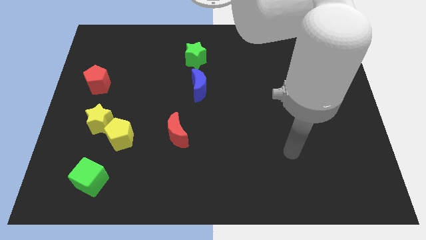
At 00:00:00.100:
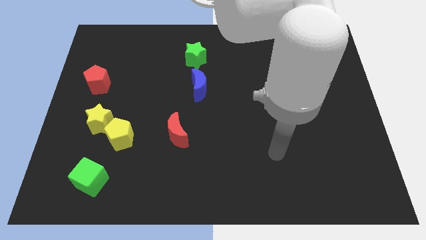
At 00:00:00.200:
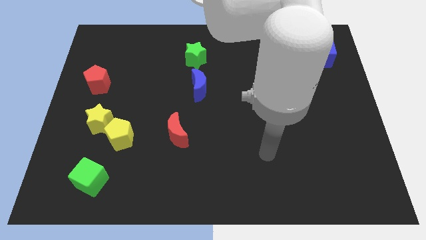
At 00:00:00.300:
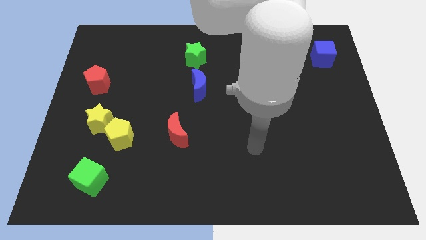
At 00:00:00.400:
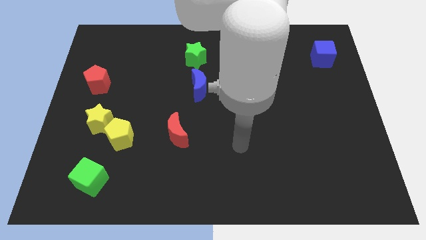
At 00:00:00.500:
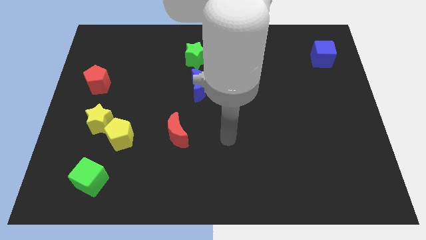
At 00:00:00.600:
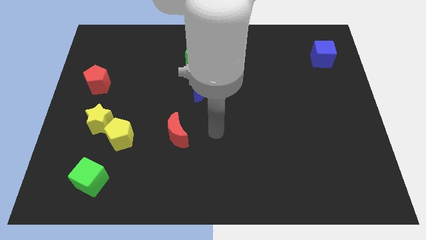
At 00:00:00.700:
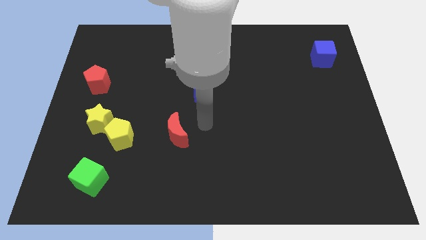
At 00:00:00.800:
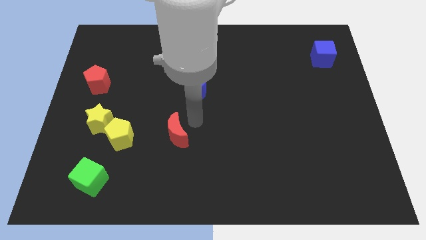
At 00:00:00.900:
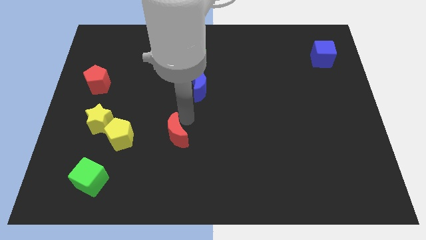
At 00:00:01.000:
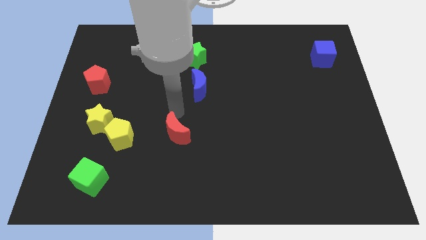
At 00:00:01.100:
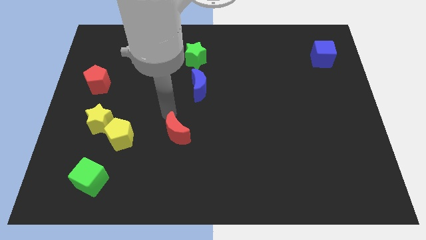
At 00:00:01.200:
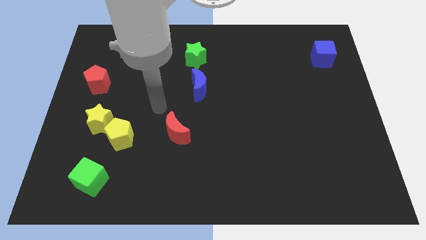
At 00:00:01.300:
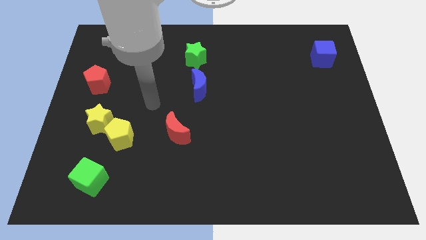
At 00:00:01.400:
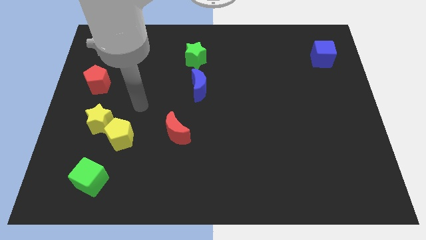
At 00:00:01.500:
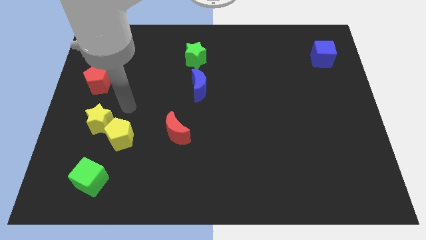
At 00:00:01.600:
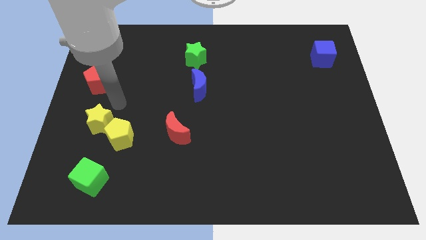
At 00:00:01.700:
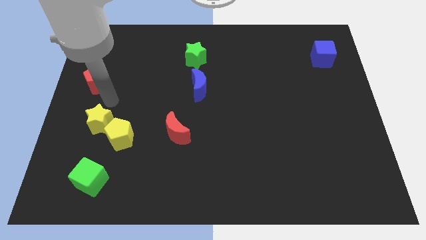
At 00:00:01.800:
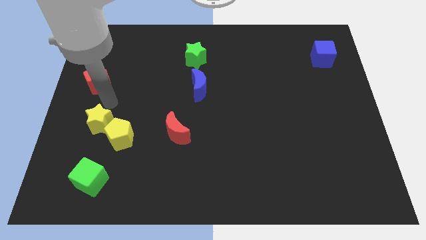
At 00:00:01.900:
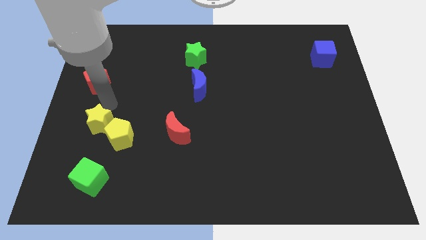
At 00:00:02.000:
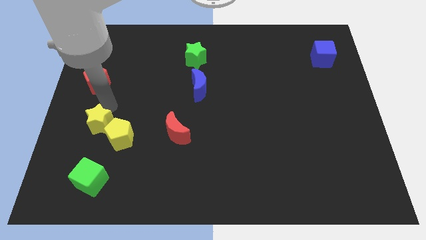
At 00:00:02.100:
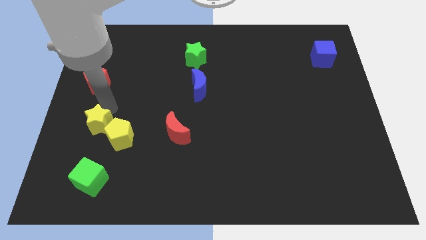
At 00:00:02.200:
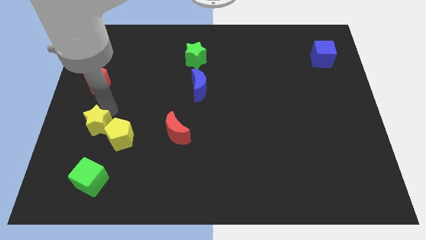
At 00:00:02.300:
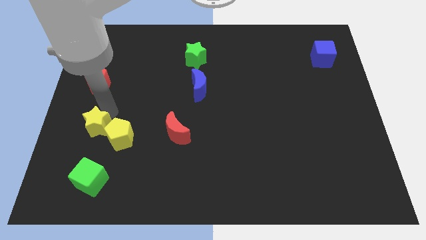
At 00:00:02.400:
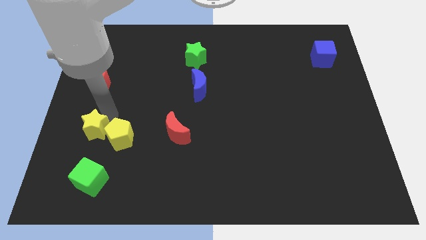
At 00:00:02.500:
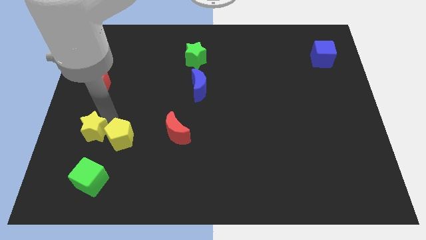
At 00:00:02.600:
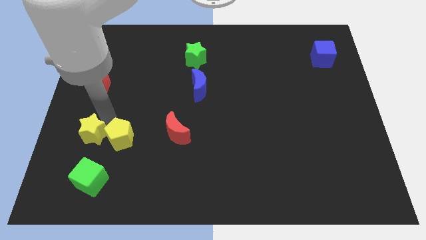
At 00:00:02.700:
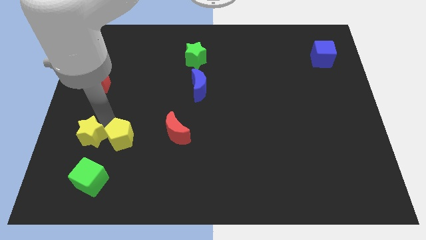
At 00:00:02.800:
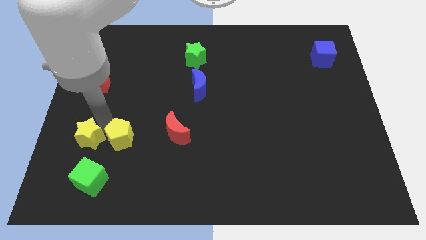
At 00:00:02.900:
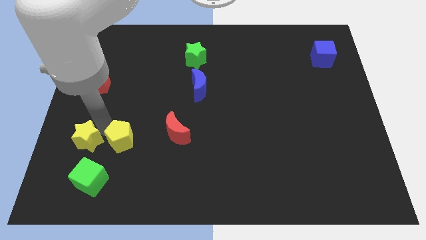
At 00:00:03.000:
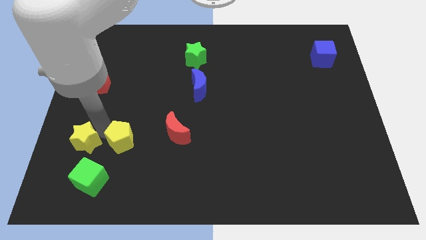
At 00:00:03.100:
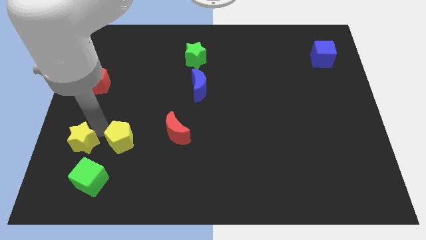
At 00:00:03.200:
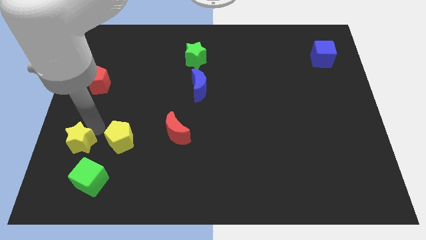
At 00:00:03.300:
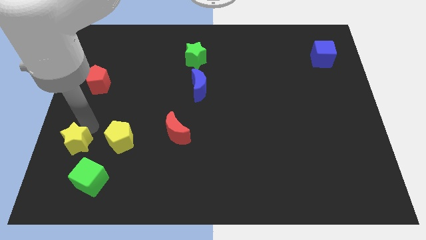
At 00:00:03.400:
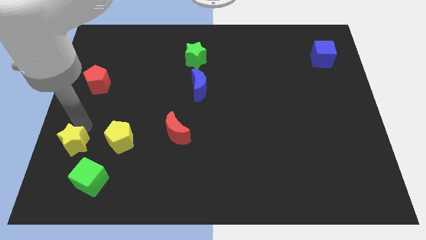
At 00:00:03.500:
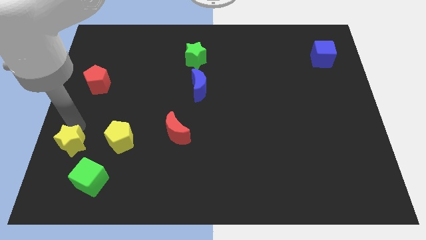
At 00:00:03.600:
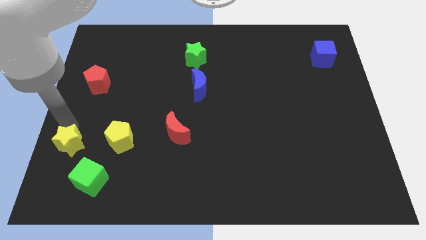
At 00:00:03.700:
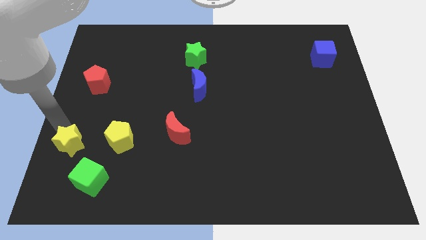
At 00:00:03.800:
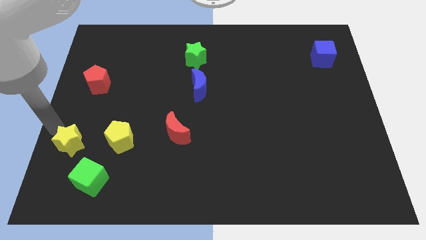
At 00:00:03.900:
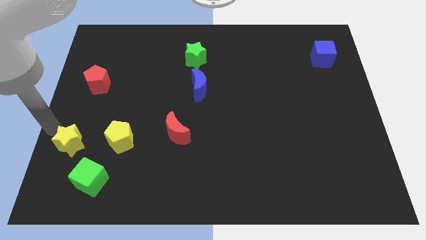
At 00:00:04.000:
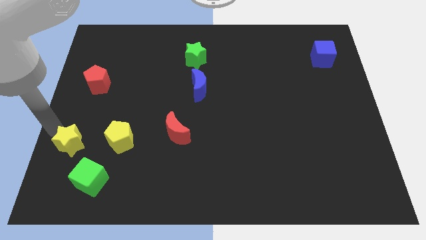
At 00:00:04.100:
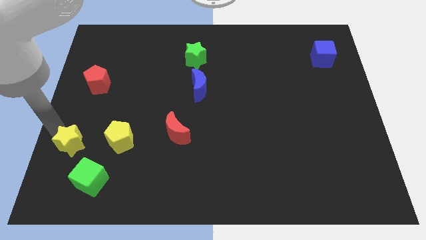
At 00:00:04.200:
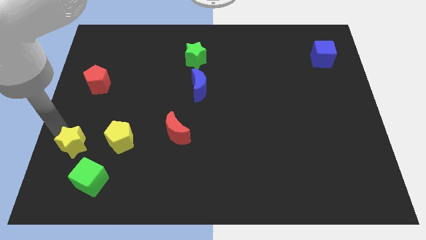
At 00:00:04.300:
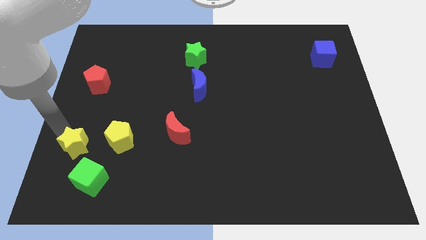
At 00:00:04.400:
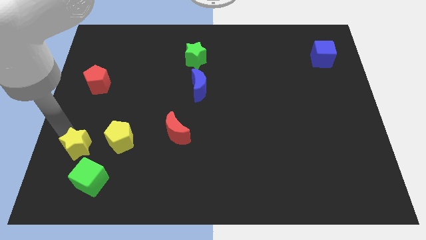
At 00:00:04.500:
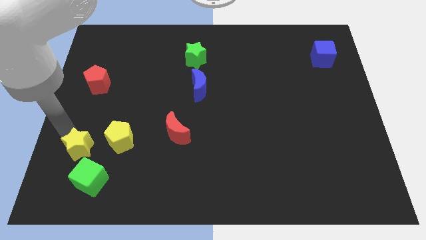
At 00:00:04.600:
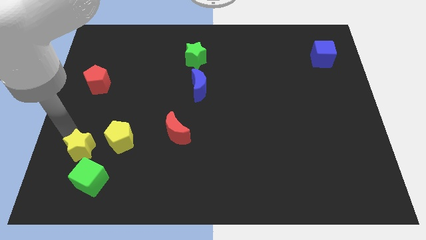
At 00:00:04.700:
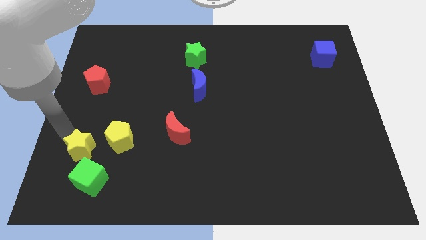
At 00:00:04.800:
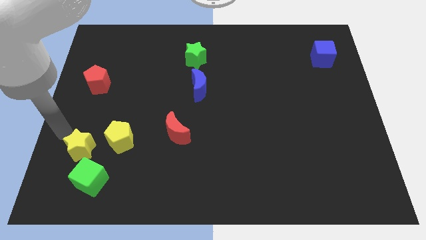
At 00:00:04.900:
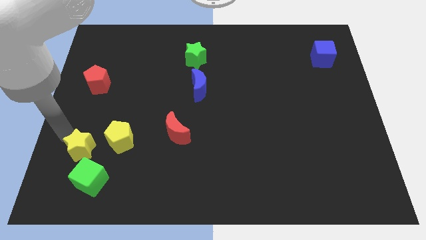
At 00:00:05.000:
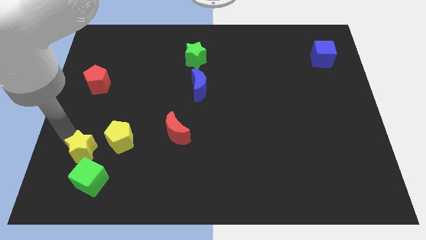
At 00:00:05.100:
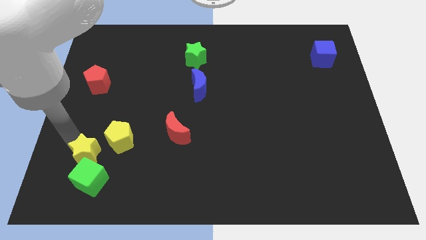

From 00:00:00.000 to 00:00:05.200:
slide the yellow star towards the green cube

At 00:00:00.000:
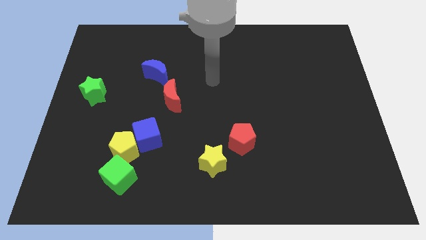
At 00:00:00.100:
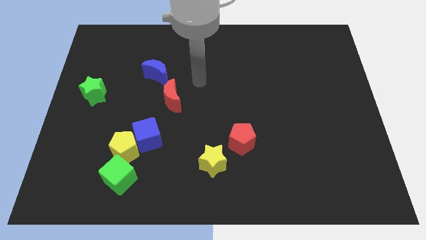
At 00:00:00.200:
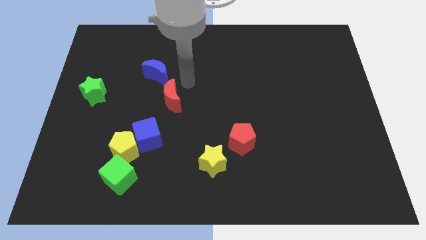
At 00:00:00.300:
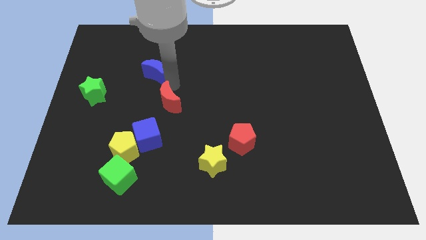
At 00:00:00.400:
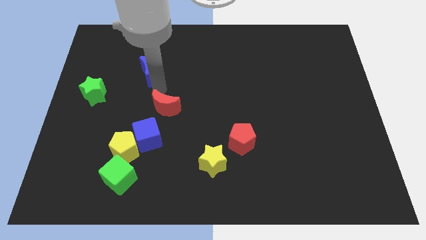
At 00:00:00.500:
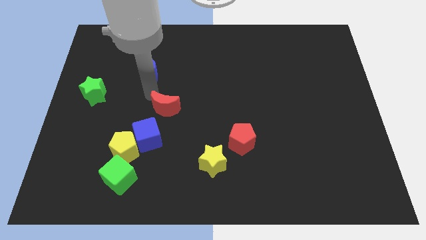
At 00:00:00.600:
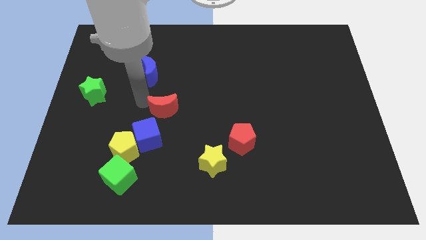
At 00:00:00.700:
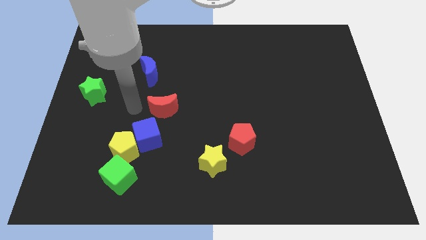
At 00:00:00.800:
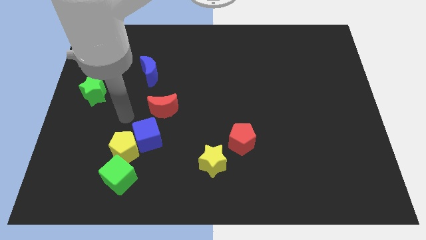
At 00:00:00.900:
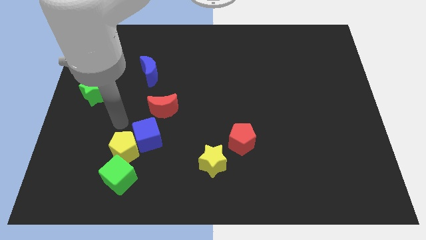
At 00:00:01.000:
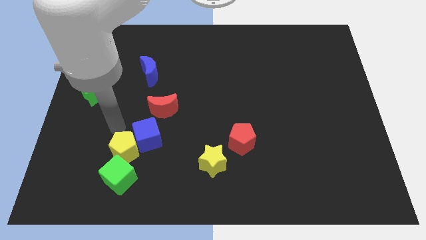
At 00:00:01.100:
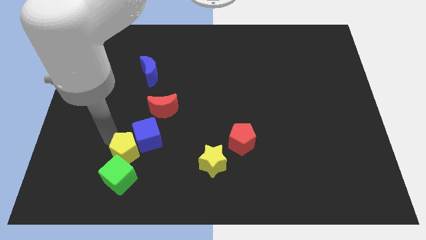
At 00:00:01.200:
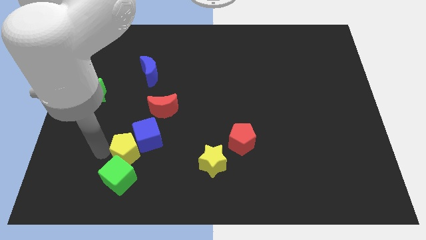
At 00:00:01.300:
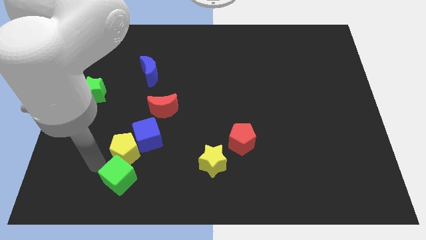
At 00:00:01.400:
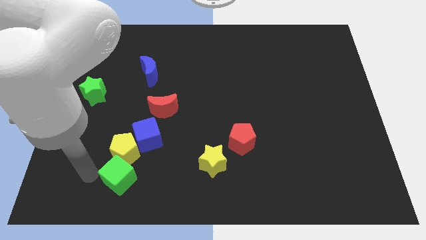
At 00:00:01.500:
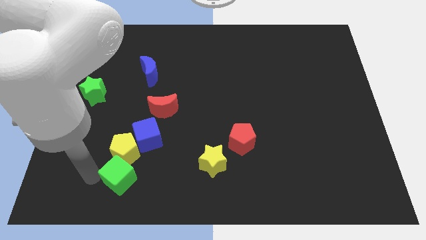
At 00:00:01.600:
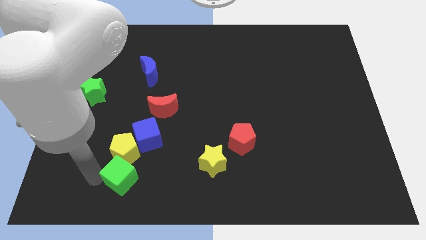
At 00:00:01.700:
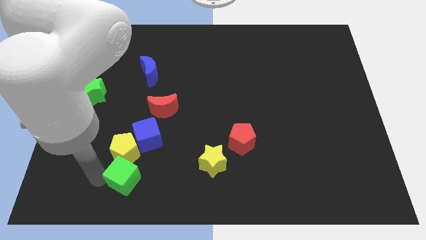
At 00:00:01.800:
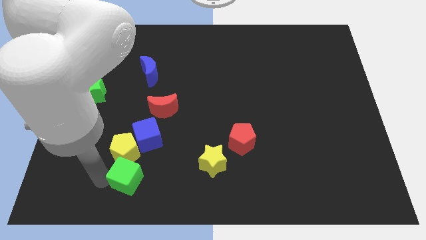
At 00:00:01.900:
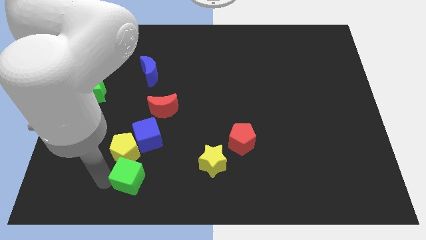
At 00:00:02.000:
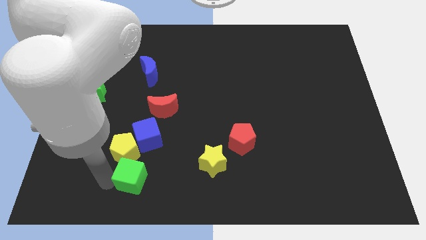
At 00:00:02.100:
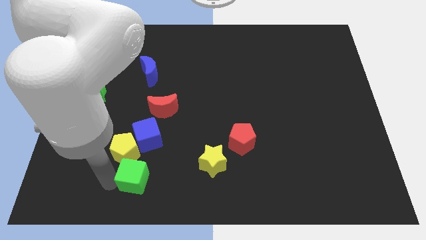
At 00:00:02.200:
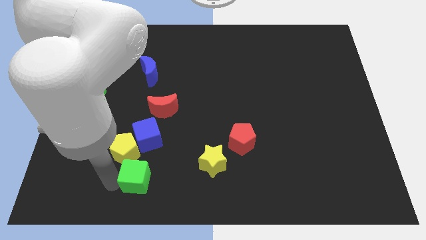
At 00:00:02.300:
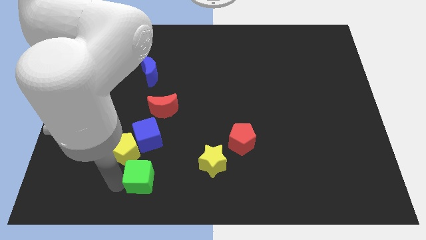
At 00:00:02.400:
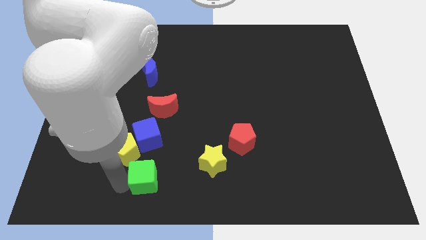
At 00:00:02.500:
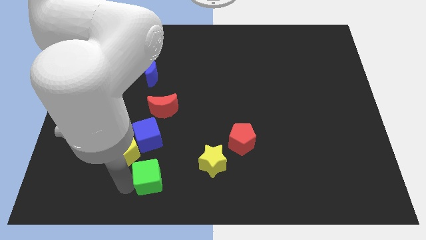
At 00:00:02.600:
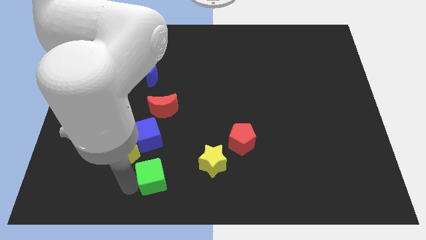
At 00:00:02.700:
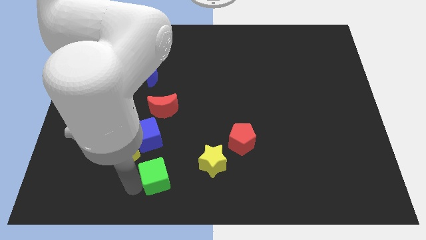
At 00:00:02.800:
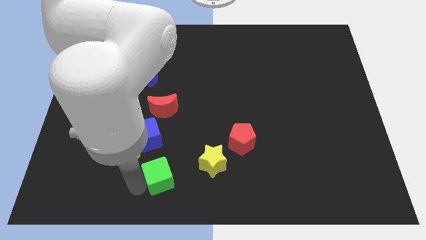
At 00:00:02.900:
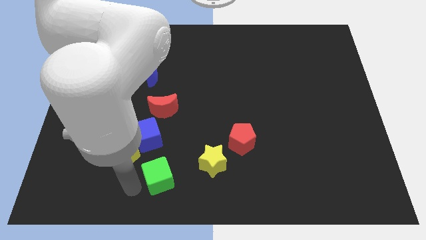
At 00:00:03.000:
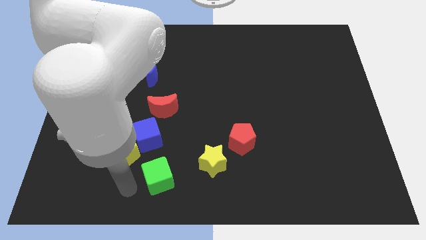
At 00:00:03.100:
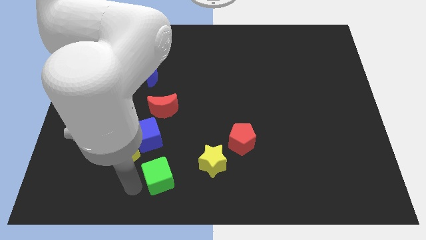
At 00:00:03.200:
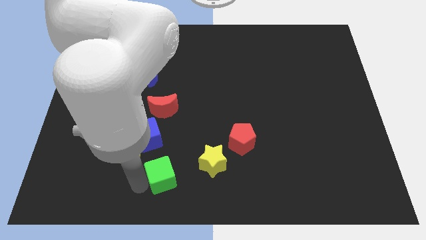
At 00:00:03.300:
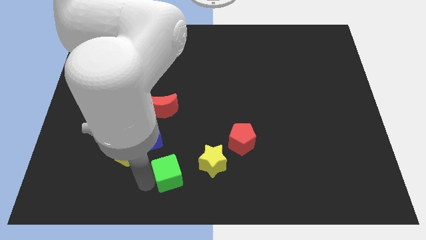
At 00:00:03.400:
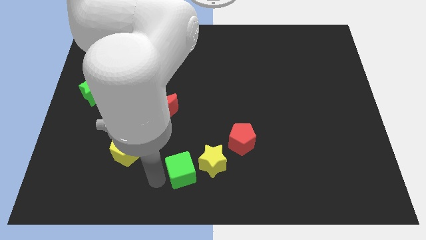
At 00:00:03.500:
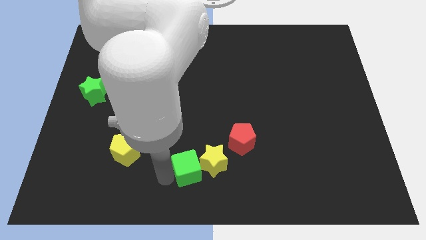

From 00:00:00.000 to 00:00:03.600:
push the green cube to the yellow star
